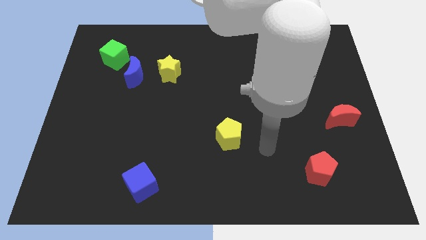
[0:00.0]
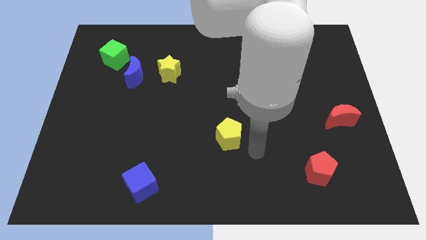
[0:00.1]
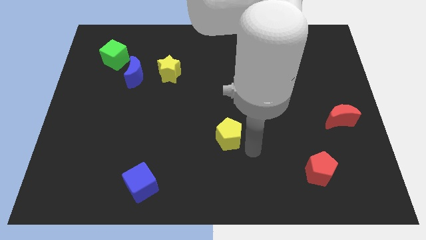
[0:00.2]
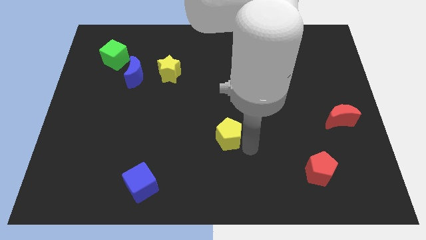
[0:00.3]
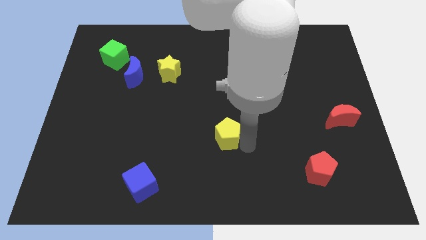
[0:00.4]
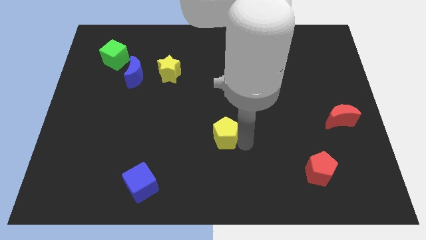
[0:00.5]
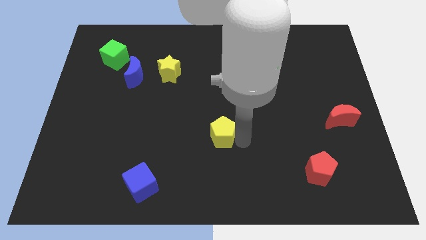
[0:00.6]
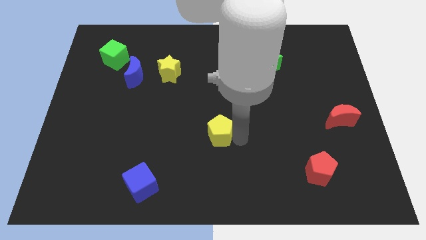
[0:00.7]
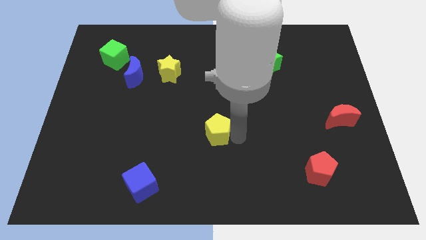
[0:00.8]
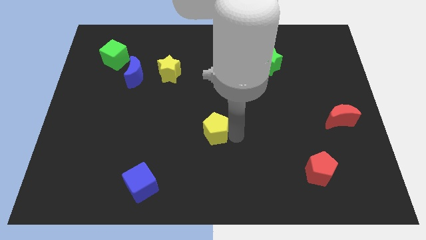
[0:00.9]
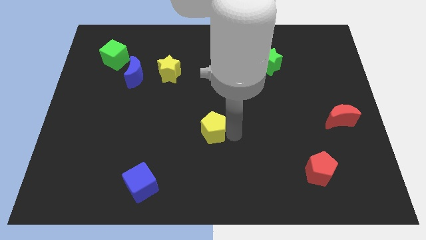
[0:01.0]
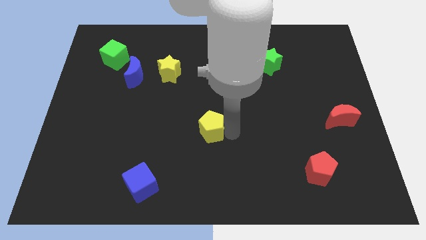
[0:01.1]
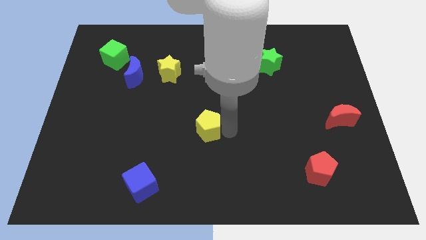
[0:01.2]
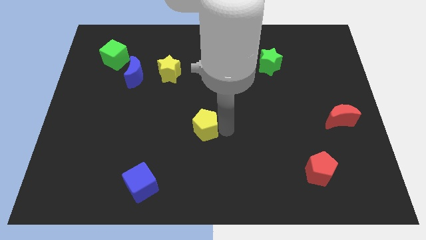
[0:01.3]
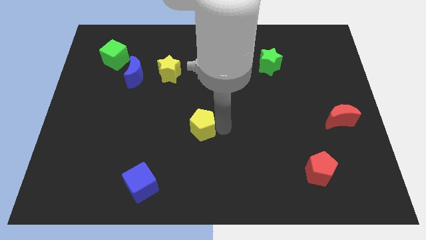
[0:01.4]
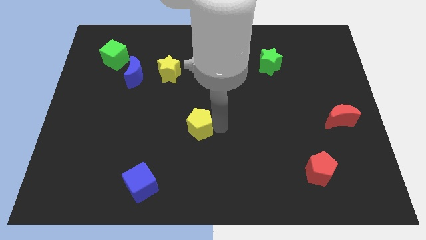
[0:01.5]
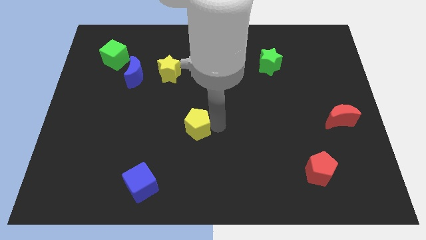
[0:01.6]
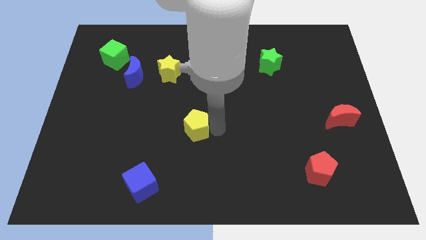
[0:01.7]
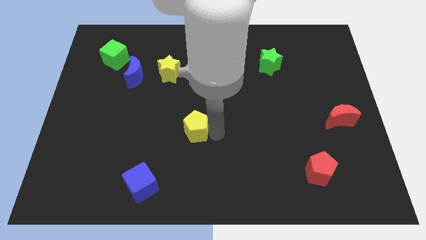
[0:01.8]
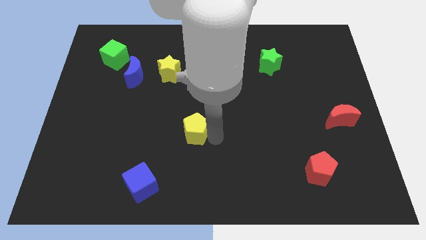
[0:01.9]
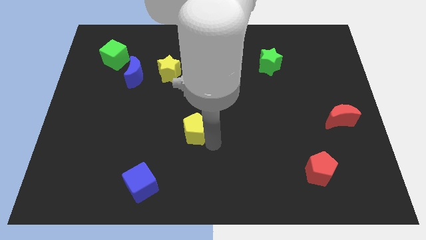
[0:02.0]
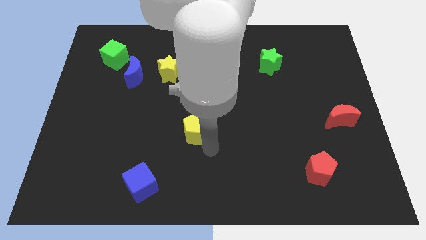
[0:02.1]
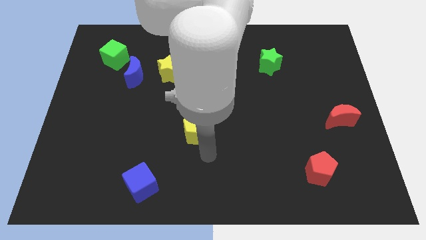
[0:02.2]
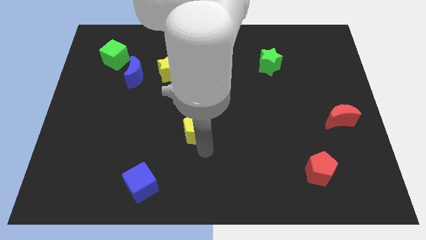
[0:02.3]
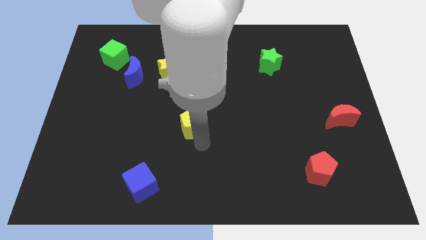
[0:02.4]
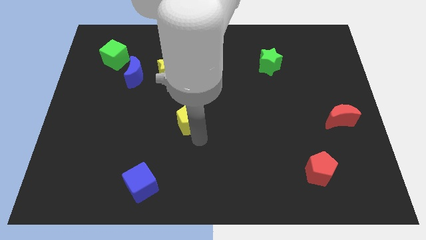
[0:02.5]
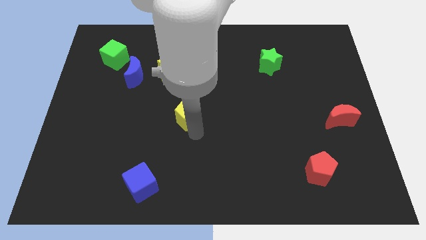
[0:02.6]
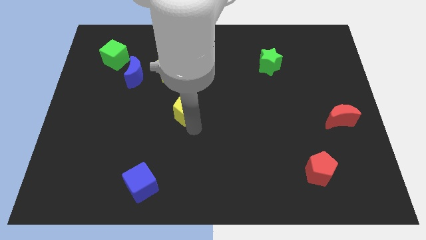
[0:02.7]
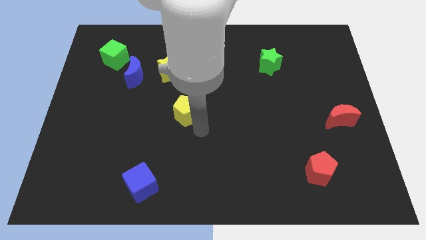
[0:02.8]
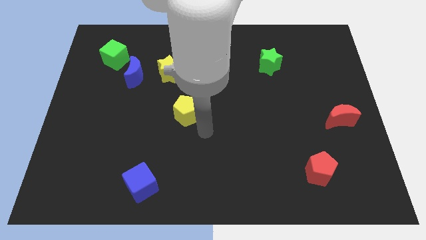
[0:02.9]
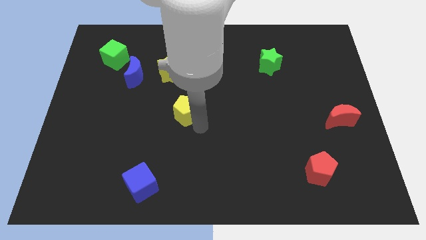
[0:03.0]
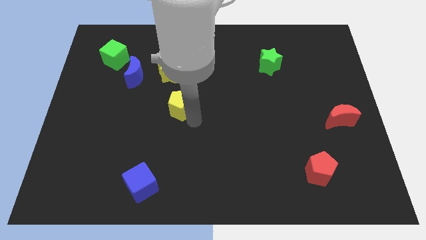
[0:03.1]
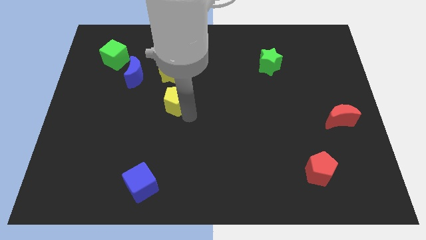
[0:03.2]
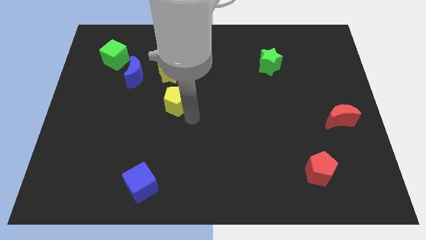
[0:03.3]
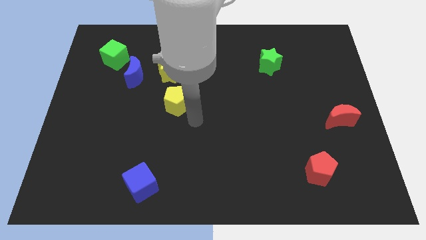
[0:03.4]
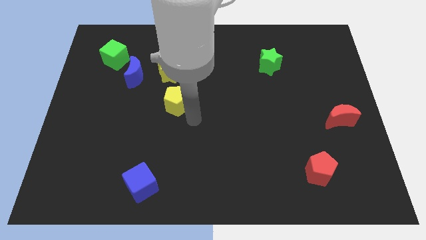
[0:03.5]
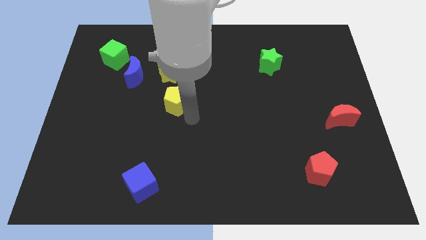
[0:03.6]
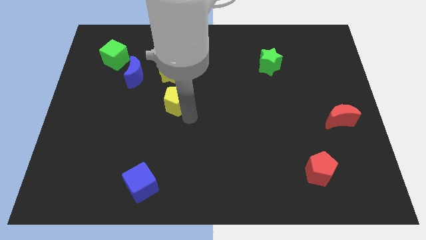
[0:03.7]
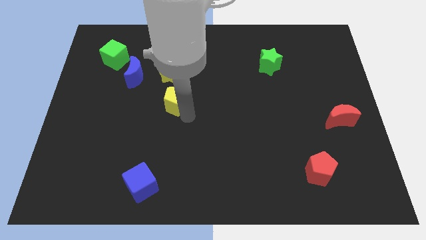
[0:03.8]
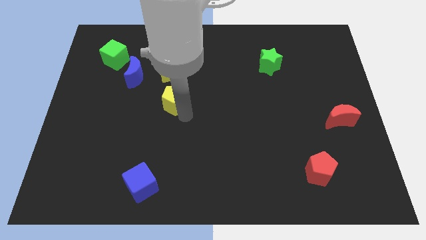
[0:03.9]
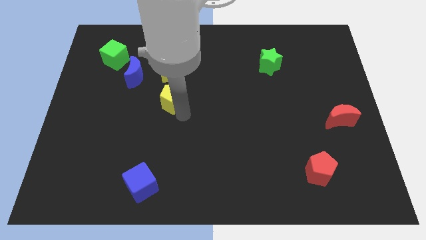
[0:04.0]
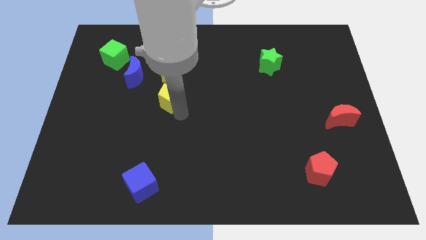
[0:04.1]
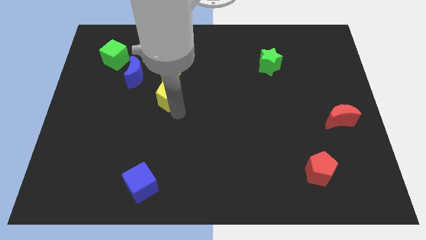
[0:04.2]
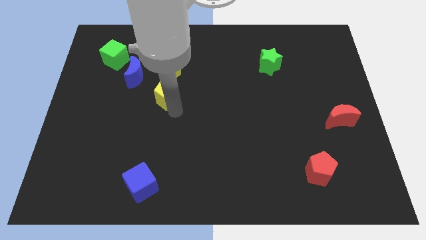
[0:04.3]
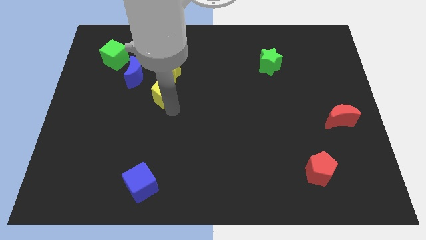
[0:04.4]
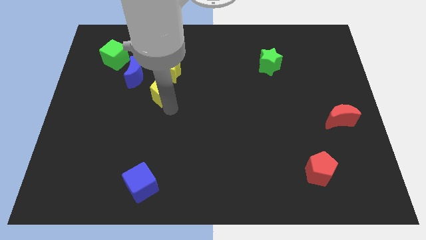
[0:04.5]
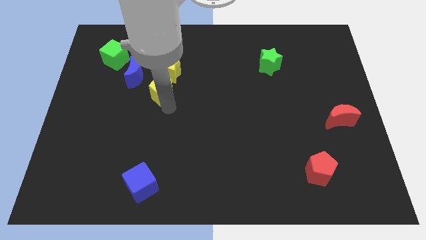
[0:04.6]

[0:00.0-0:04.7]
push the yellow pentagon upwards and to the left diagonally

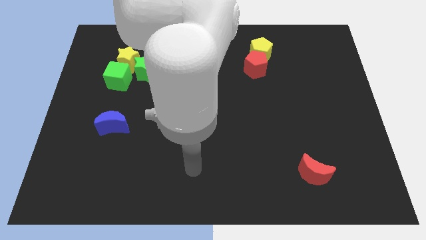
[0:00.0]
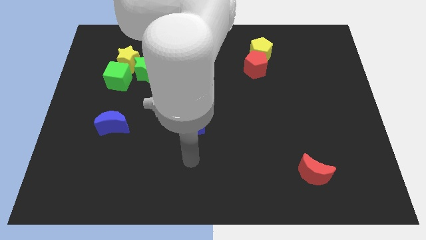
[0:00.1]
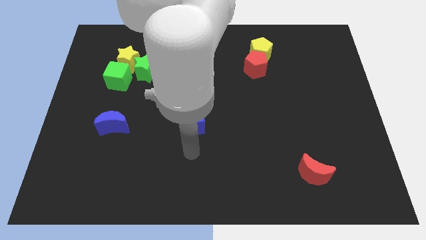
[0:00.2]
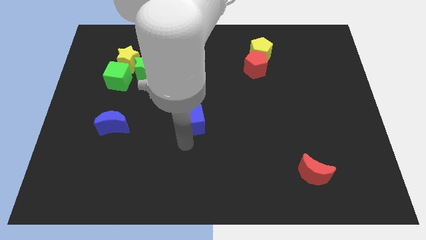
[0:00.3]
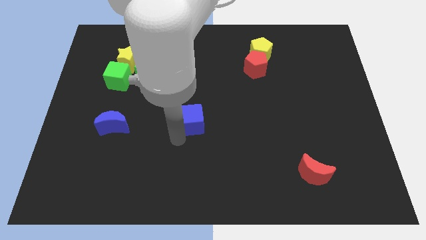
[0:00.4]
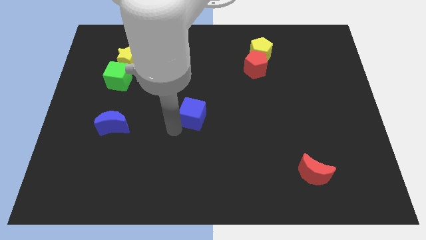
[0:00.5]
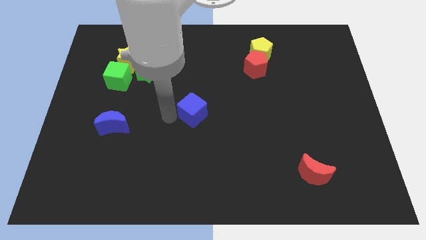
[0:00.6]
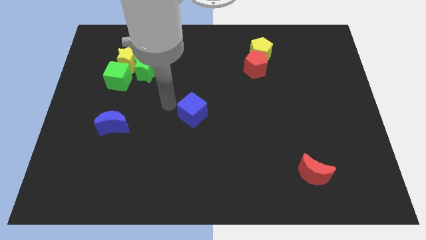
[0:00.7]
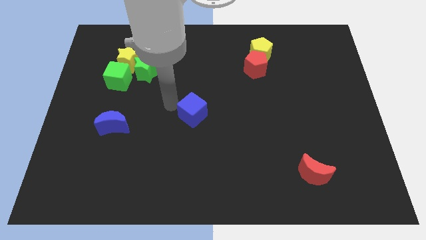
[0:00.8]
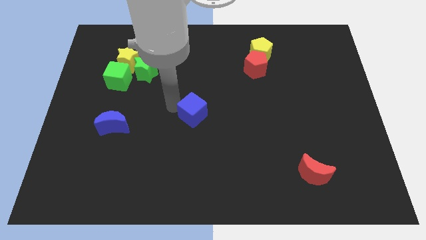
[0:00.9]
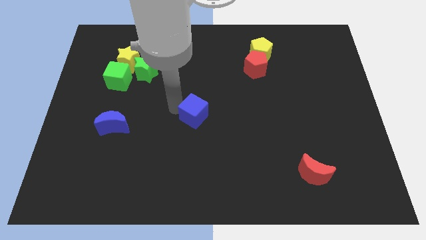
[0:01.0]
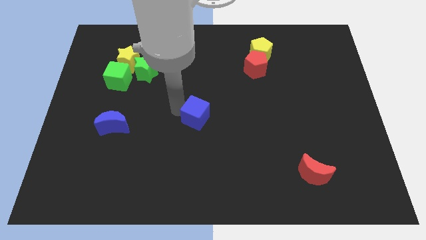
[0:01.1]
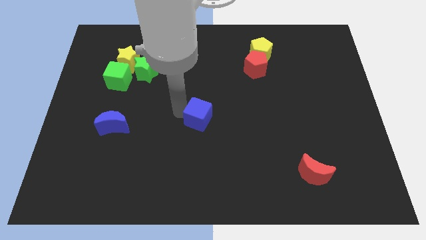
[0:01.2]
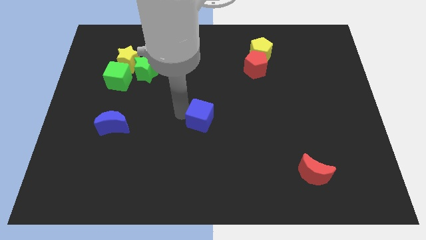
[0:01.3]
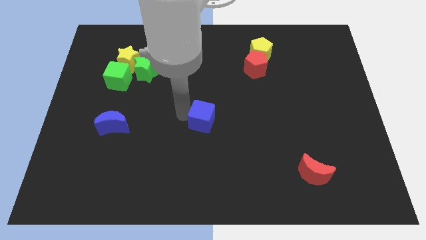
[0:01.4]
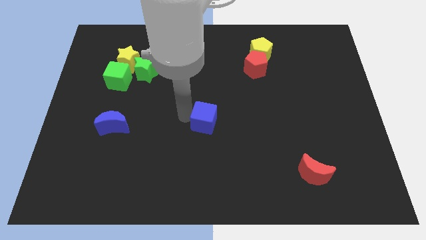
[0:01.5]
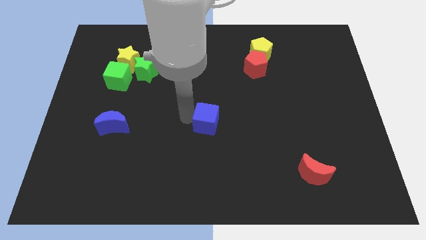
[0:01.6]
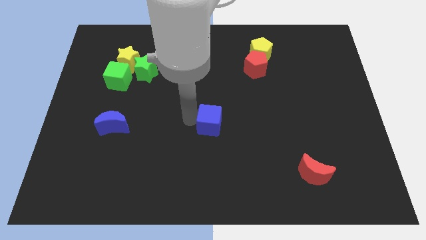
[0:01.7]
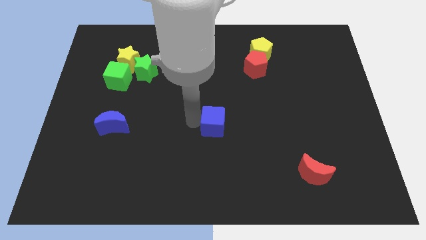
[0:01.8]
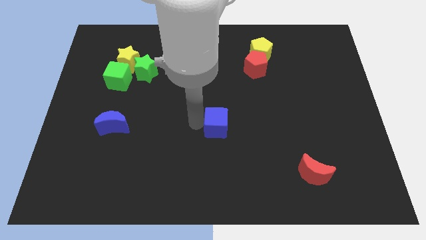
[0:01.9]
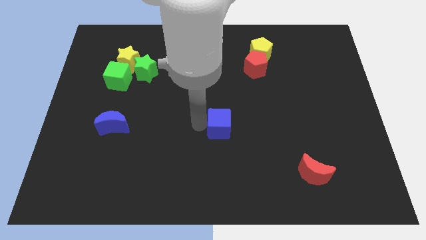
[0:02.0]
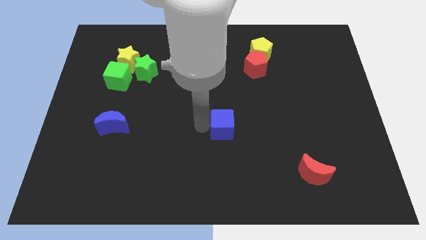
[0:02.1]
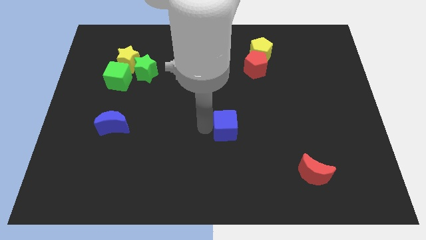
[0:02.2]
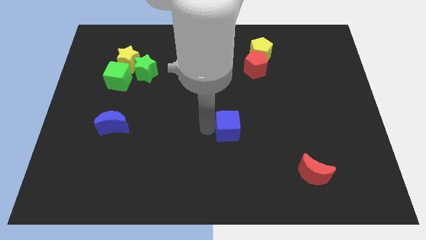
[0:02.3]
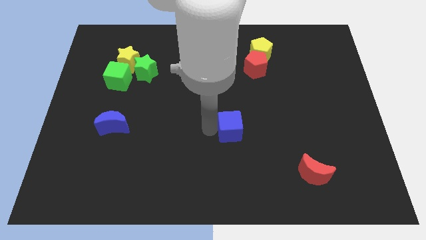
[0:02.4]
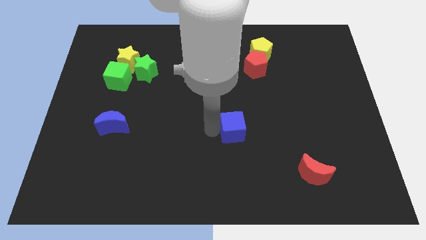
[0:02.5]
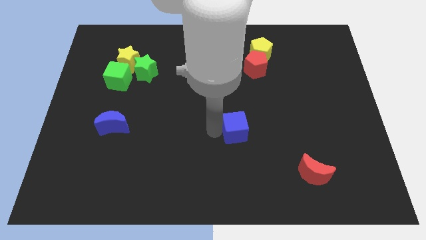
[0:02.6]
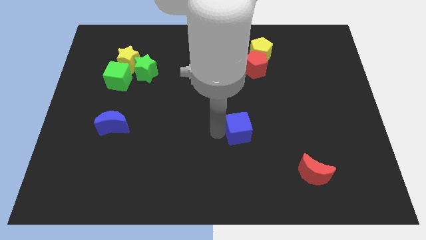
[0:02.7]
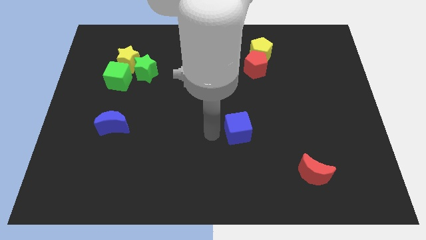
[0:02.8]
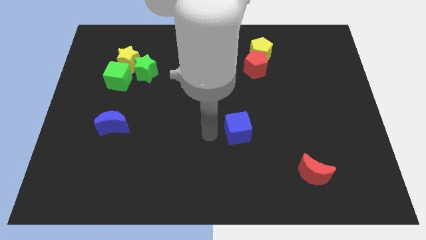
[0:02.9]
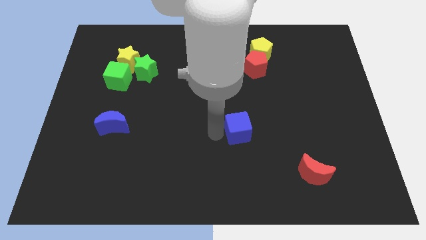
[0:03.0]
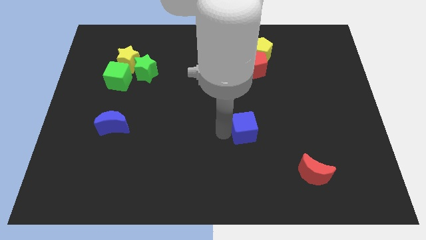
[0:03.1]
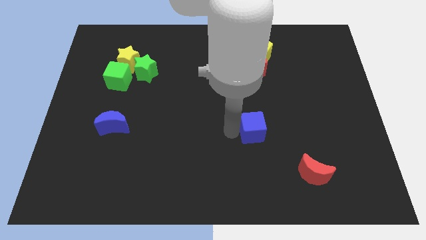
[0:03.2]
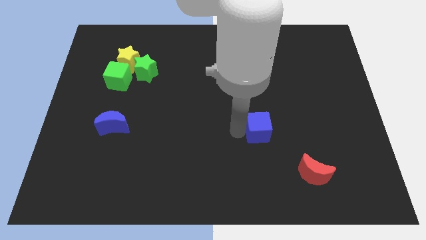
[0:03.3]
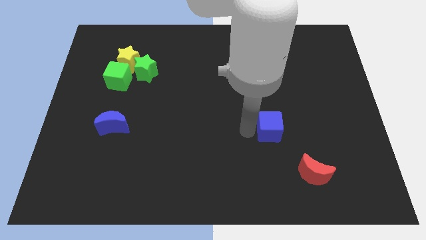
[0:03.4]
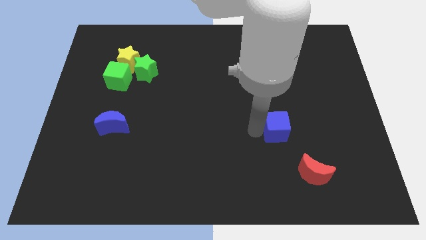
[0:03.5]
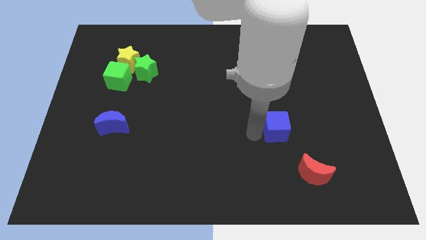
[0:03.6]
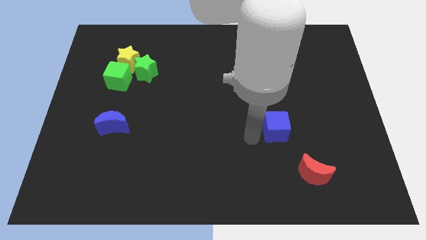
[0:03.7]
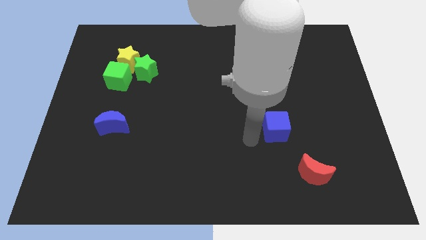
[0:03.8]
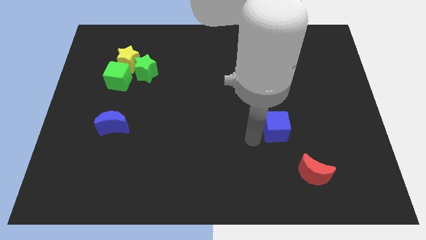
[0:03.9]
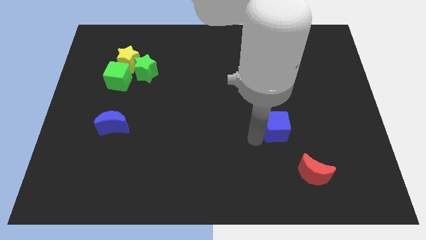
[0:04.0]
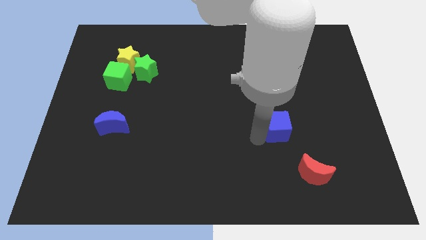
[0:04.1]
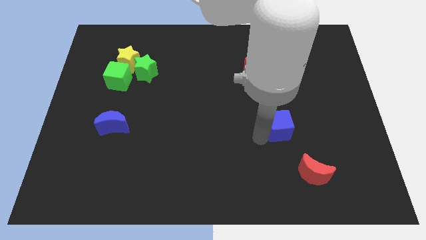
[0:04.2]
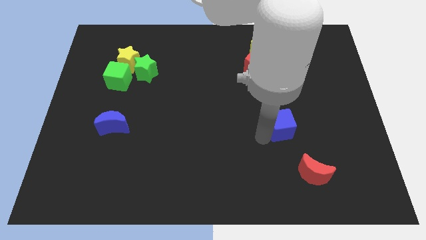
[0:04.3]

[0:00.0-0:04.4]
slide the blue cube right
